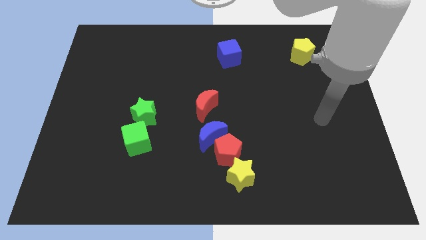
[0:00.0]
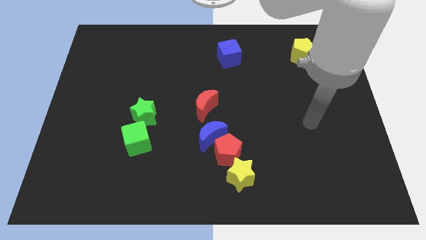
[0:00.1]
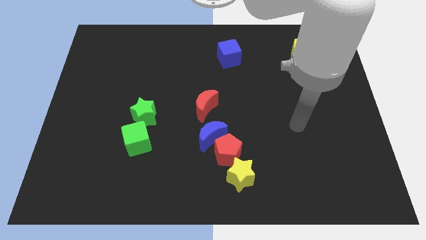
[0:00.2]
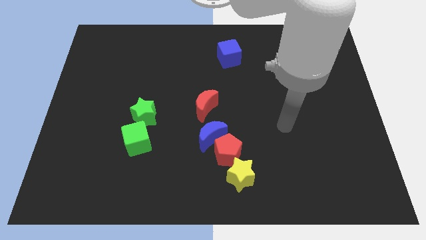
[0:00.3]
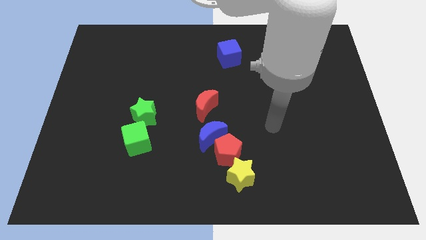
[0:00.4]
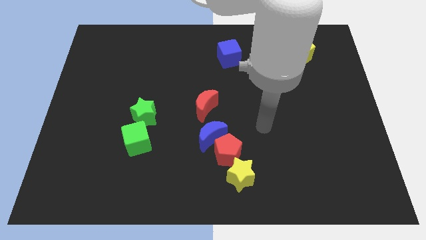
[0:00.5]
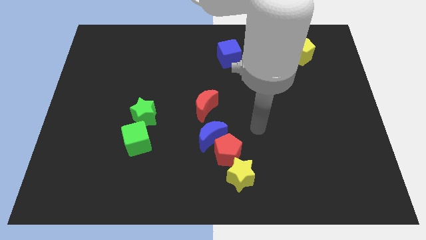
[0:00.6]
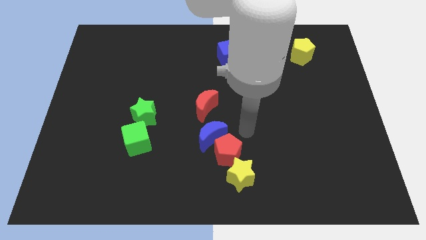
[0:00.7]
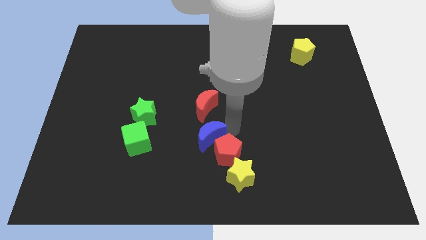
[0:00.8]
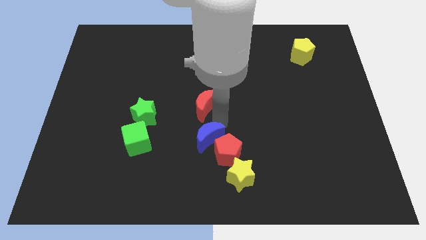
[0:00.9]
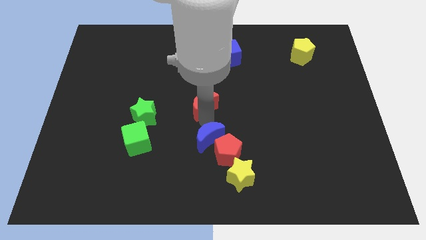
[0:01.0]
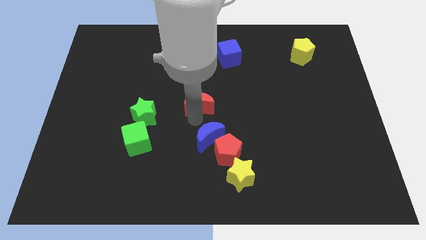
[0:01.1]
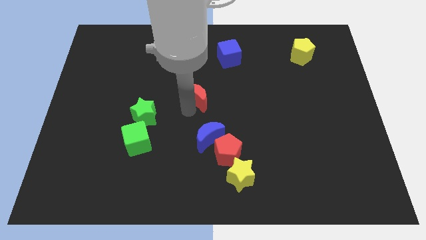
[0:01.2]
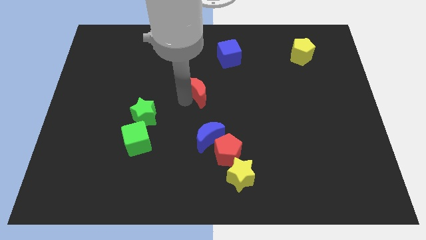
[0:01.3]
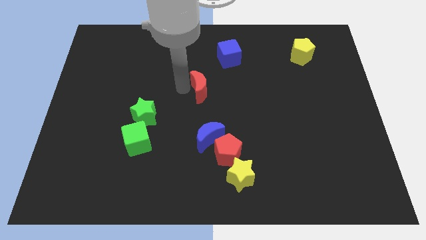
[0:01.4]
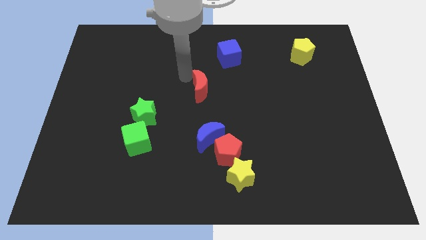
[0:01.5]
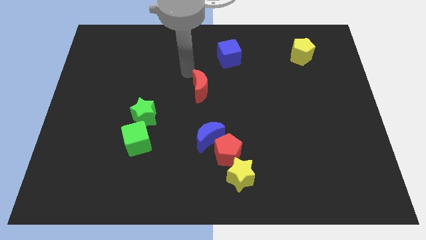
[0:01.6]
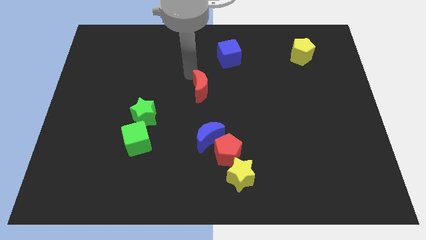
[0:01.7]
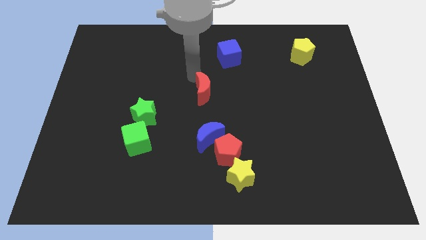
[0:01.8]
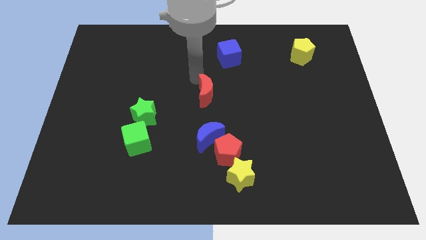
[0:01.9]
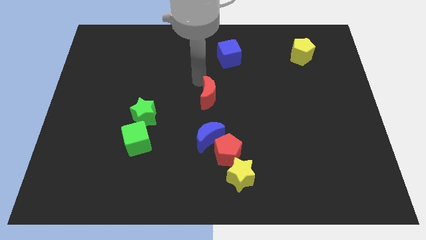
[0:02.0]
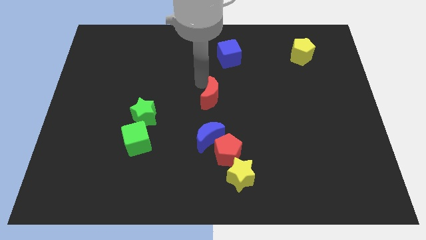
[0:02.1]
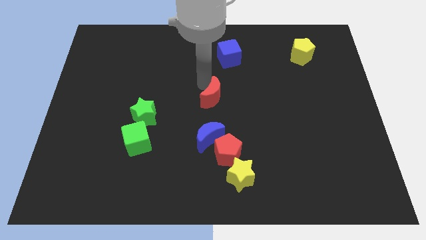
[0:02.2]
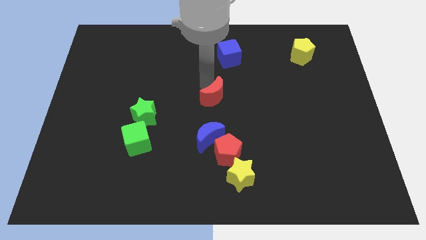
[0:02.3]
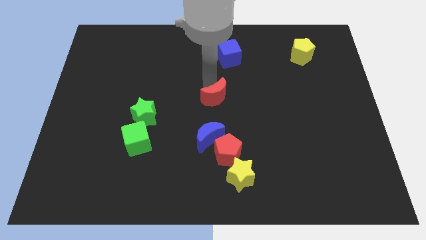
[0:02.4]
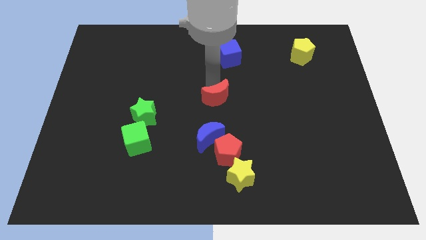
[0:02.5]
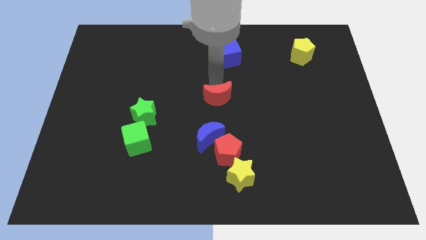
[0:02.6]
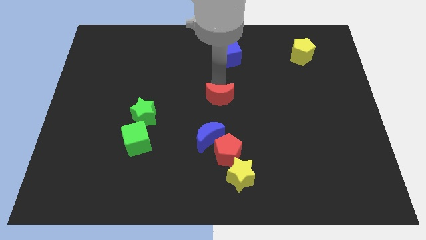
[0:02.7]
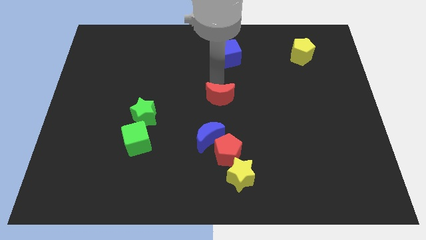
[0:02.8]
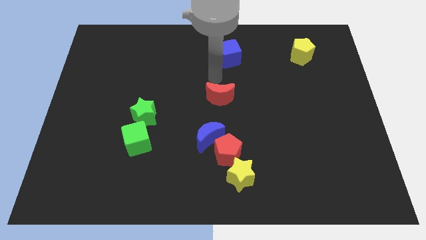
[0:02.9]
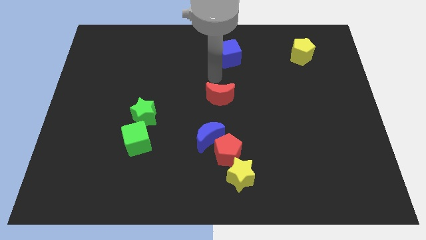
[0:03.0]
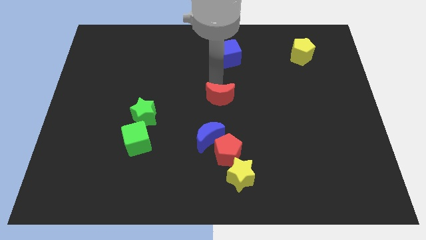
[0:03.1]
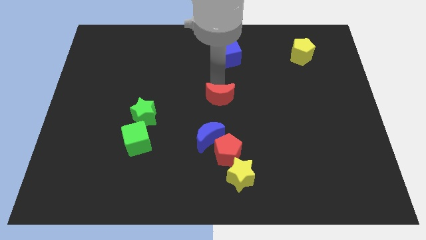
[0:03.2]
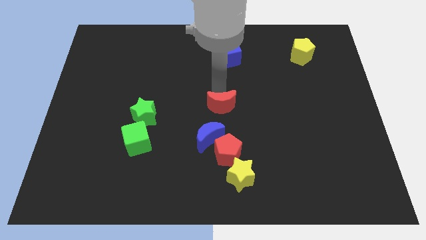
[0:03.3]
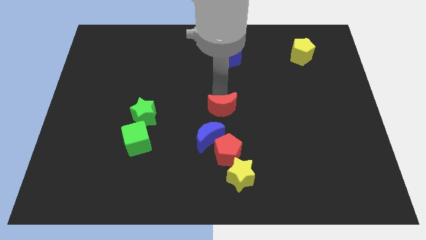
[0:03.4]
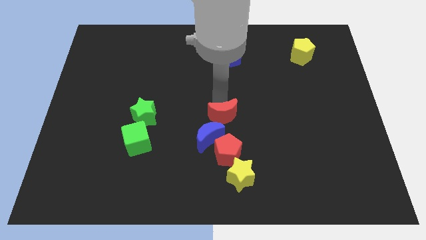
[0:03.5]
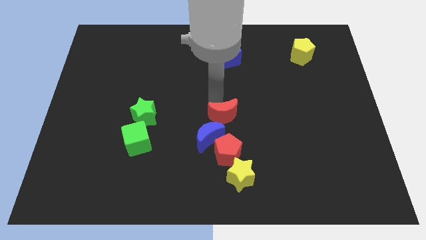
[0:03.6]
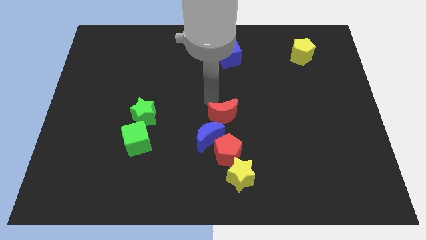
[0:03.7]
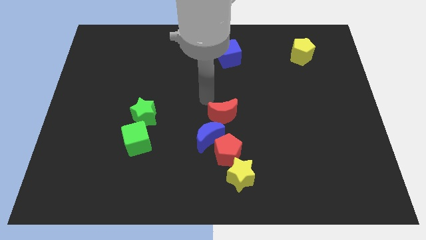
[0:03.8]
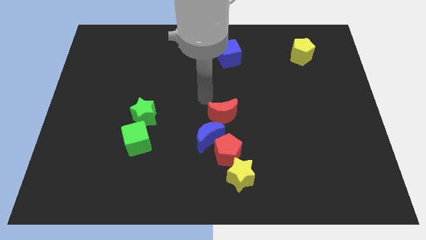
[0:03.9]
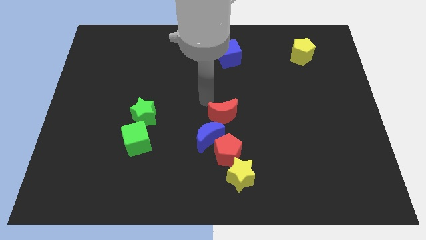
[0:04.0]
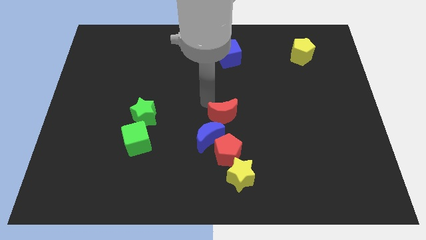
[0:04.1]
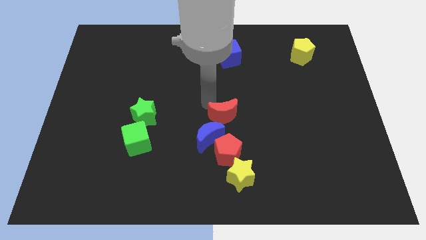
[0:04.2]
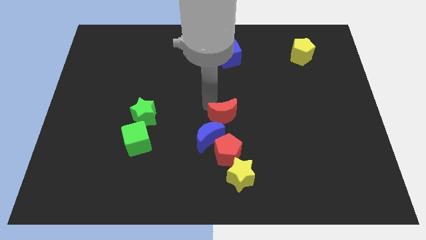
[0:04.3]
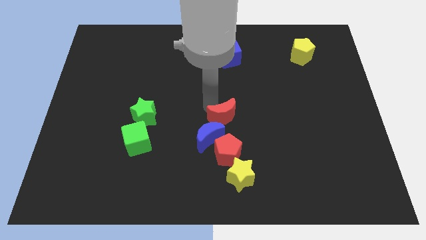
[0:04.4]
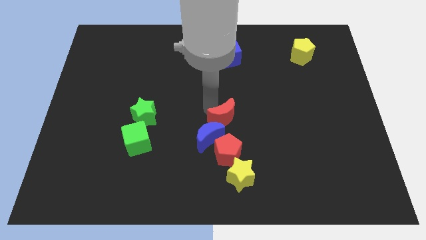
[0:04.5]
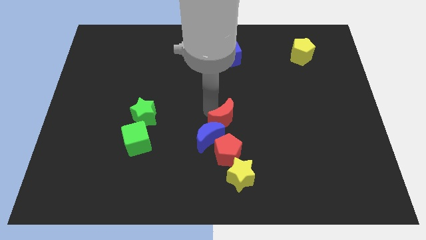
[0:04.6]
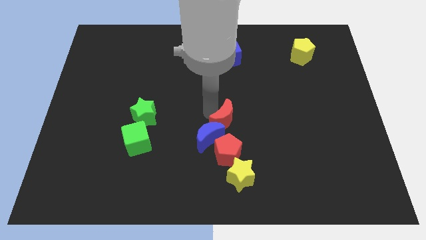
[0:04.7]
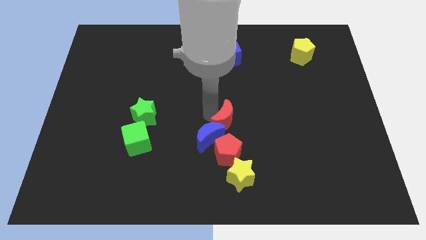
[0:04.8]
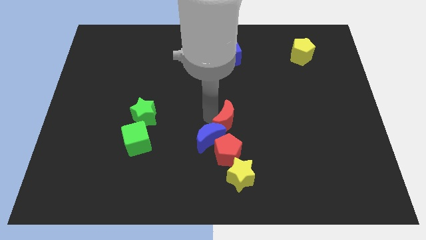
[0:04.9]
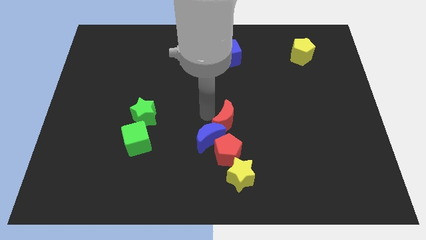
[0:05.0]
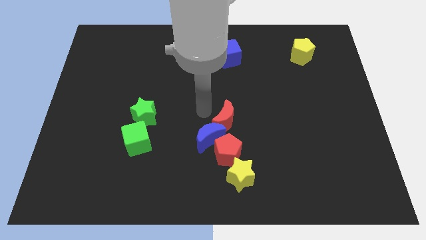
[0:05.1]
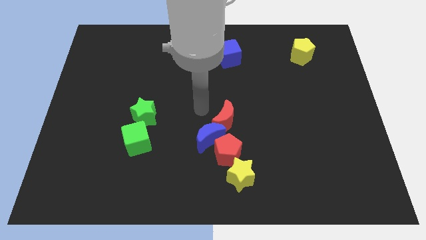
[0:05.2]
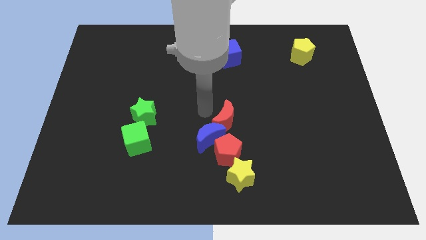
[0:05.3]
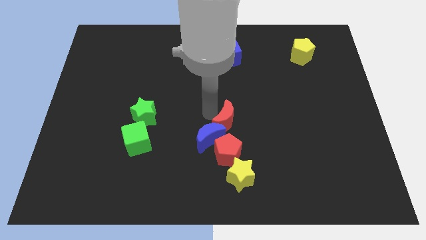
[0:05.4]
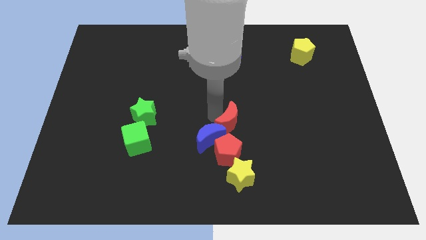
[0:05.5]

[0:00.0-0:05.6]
slightly move the red moon downwards and right

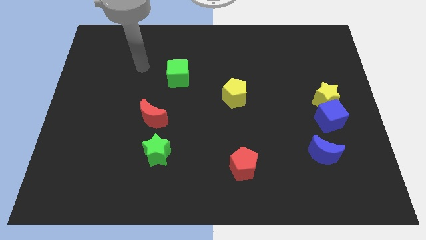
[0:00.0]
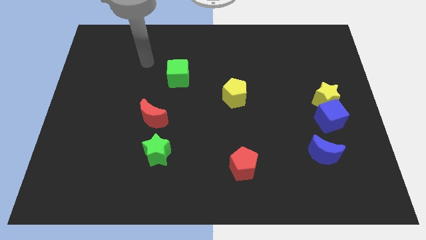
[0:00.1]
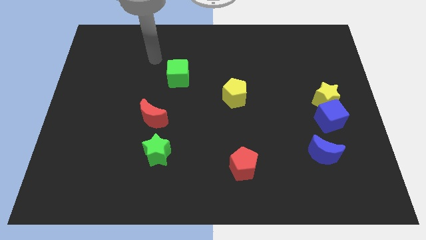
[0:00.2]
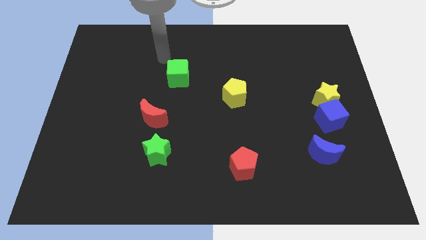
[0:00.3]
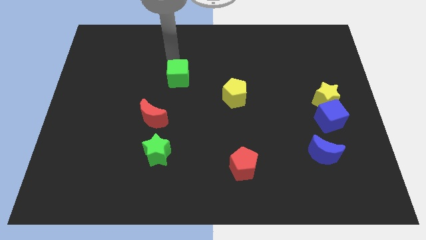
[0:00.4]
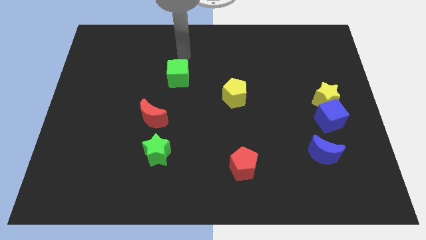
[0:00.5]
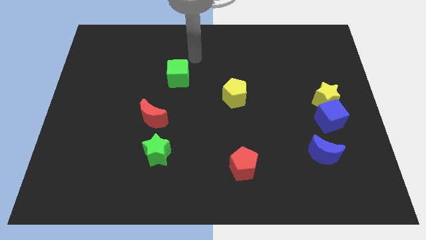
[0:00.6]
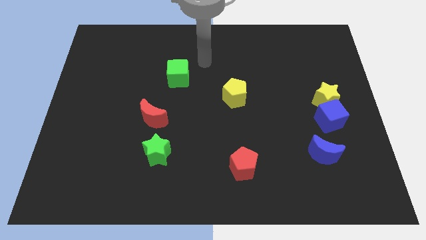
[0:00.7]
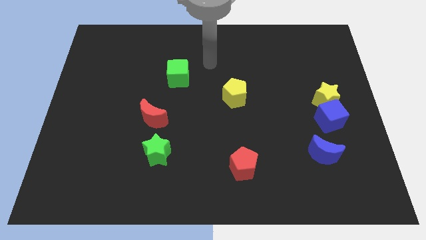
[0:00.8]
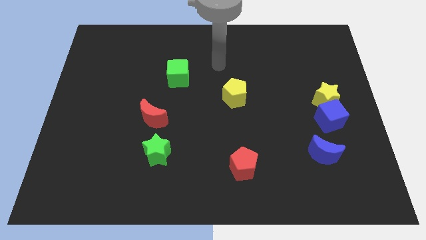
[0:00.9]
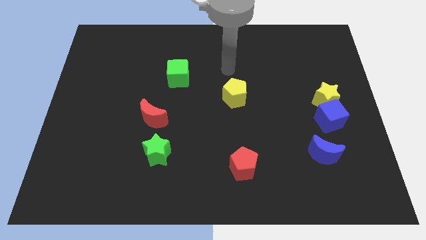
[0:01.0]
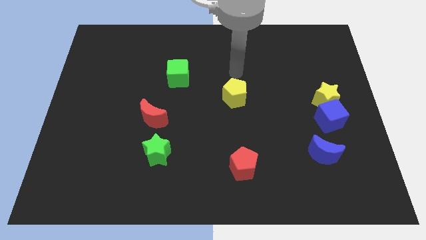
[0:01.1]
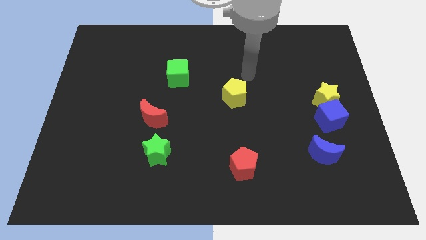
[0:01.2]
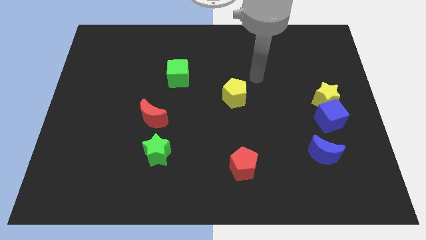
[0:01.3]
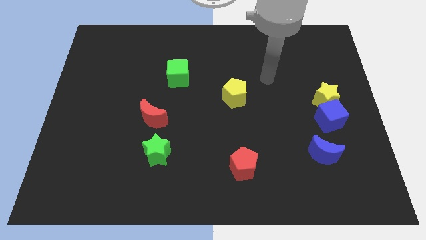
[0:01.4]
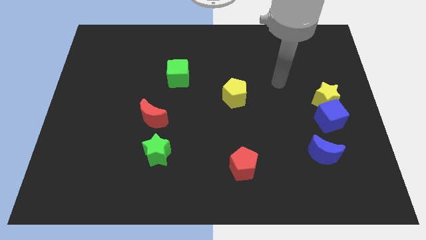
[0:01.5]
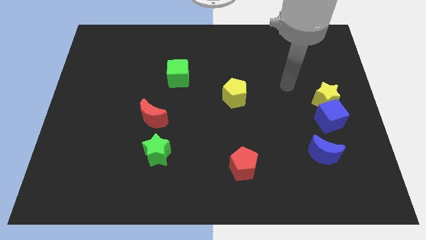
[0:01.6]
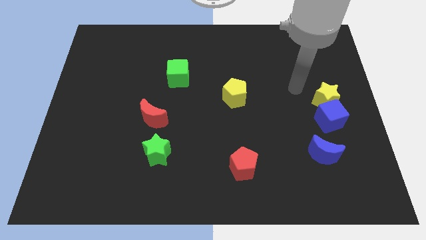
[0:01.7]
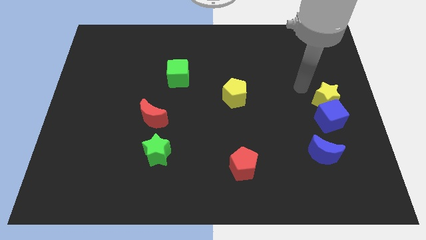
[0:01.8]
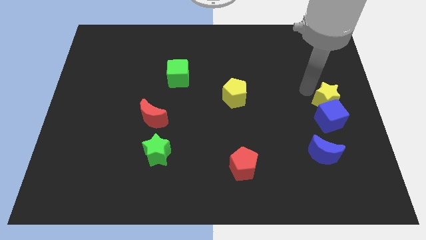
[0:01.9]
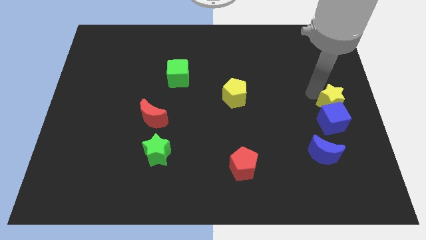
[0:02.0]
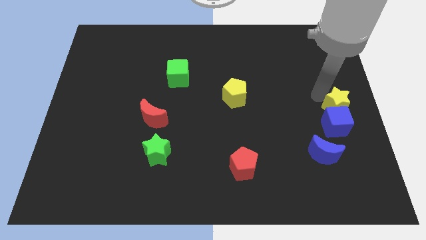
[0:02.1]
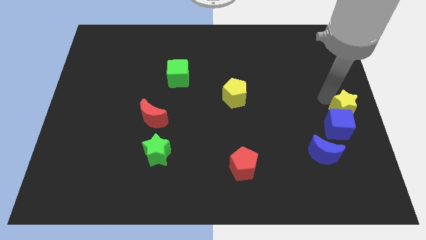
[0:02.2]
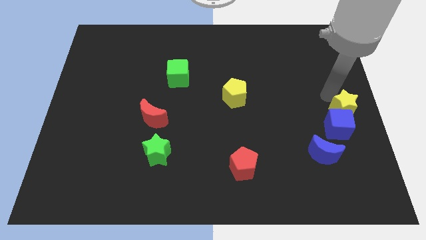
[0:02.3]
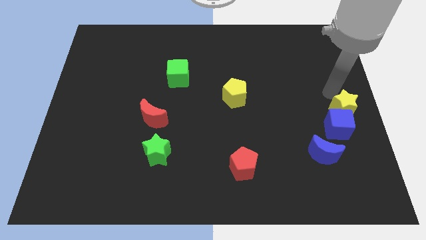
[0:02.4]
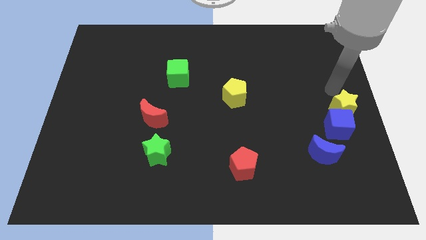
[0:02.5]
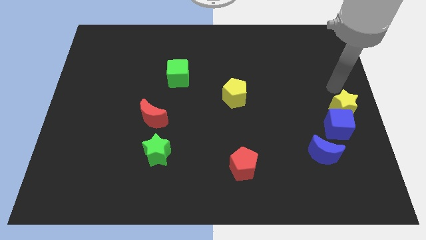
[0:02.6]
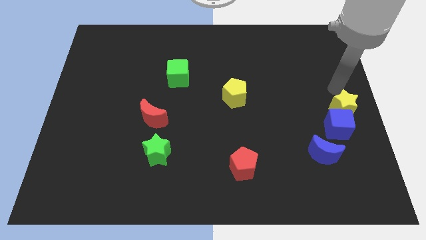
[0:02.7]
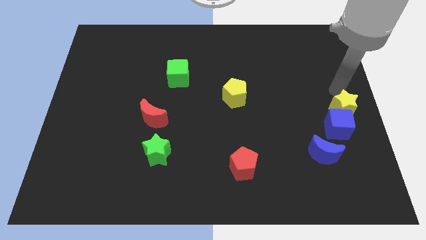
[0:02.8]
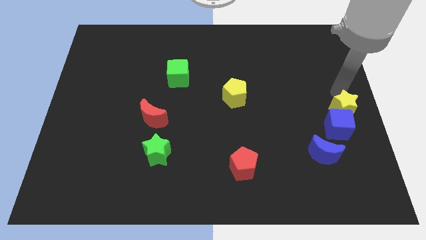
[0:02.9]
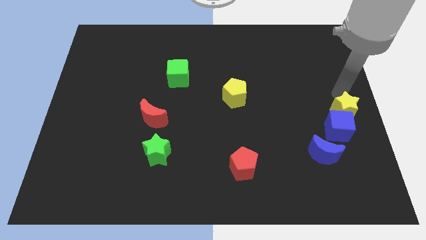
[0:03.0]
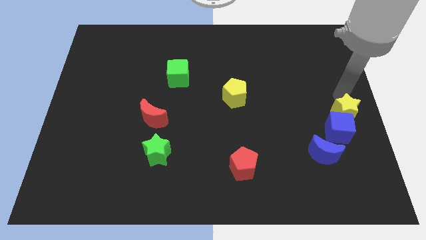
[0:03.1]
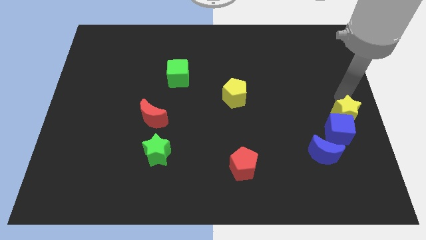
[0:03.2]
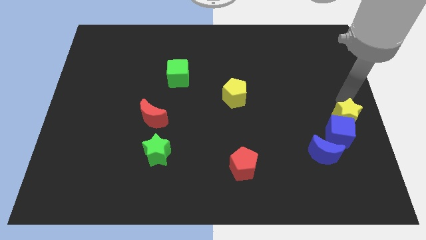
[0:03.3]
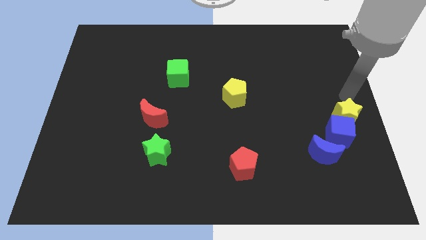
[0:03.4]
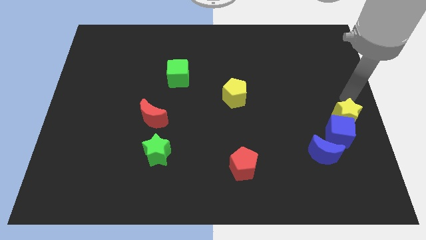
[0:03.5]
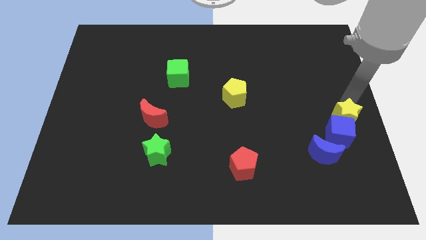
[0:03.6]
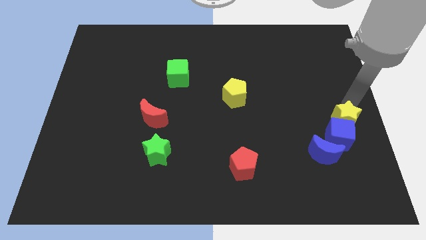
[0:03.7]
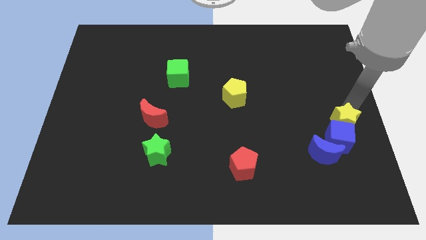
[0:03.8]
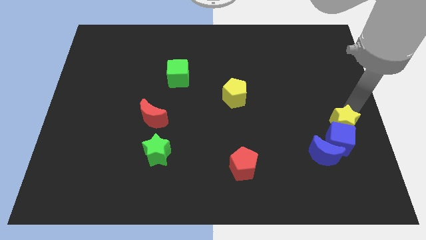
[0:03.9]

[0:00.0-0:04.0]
slightly push the yellow star down
